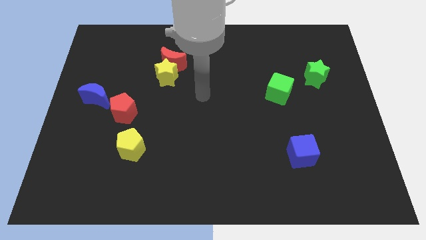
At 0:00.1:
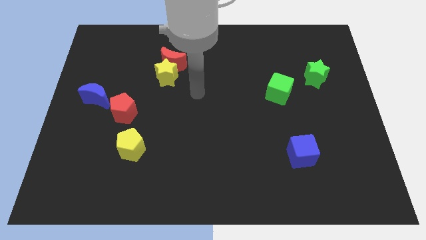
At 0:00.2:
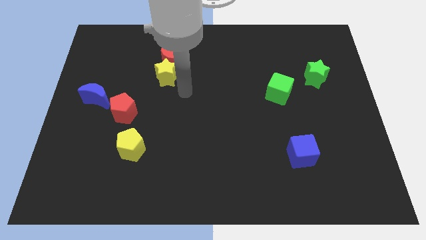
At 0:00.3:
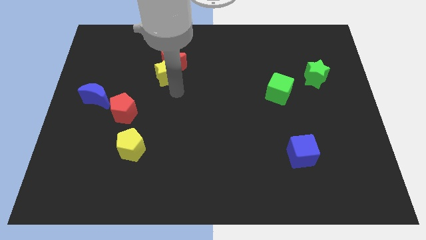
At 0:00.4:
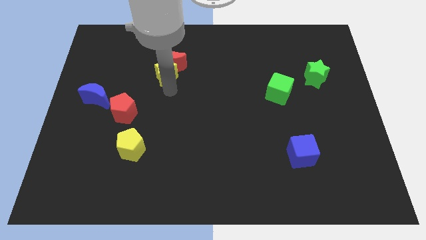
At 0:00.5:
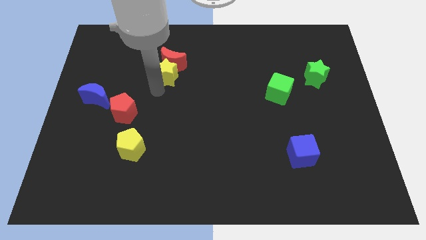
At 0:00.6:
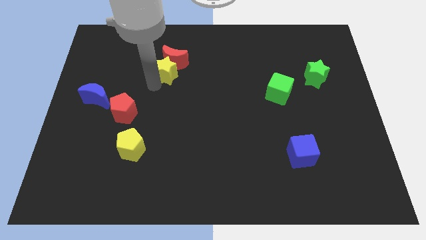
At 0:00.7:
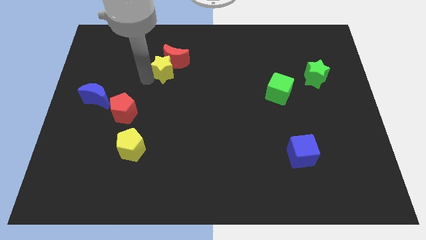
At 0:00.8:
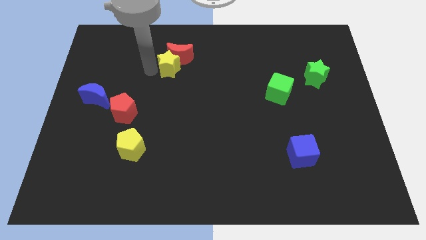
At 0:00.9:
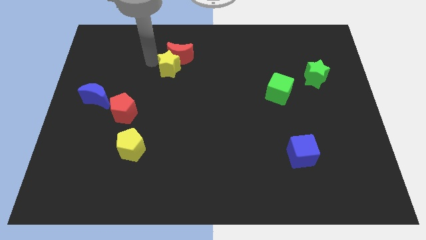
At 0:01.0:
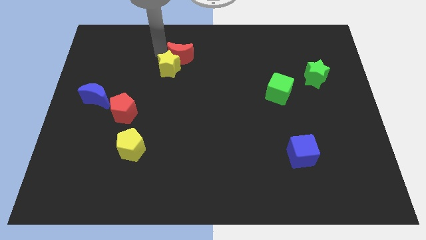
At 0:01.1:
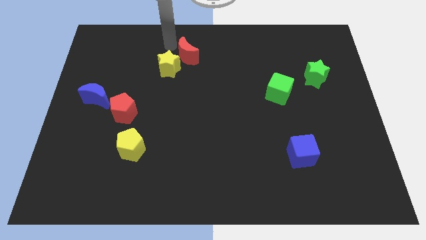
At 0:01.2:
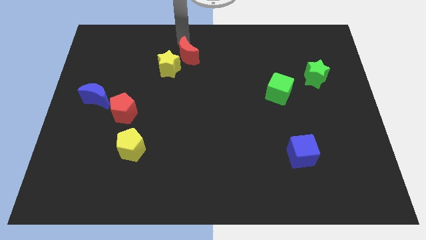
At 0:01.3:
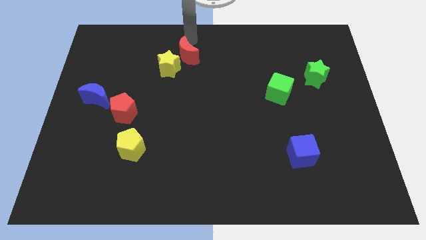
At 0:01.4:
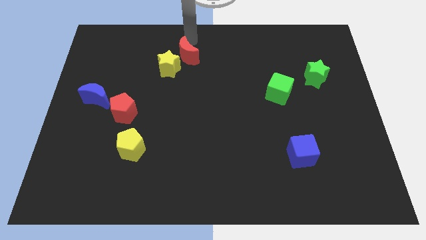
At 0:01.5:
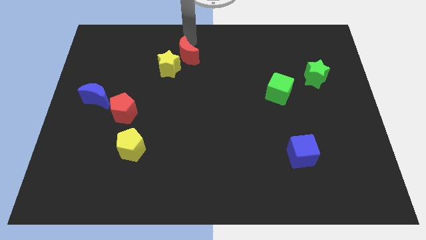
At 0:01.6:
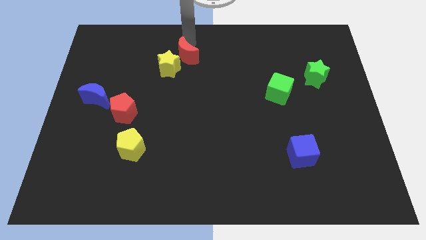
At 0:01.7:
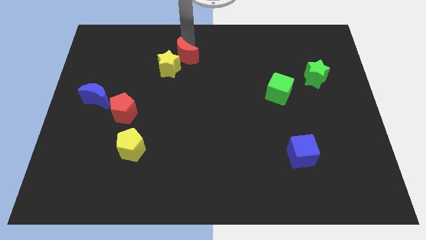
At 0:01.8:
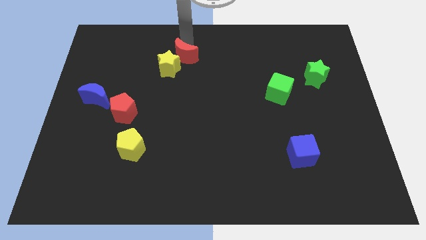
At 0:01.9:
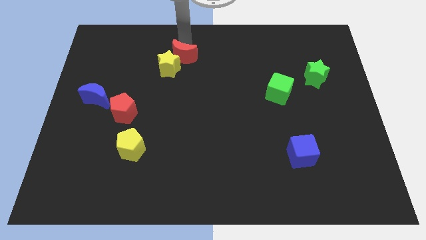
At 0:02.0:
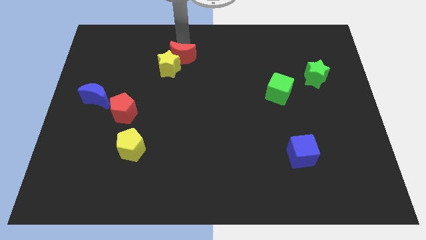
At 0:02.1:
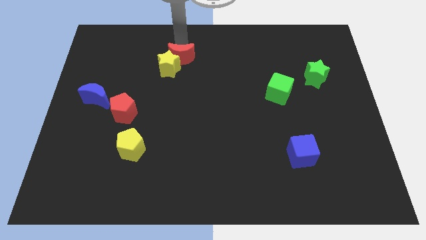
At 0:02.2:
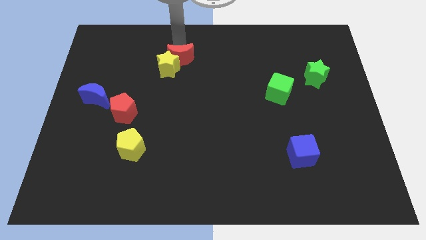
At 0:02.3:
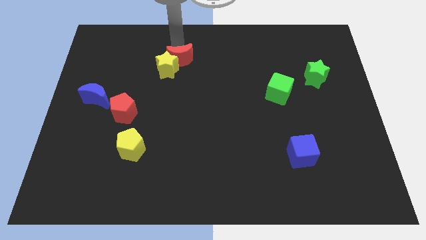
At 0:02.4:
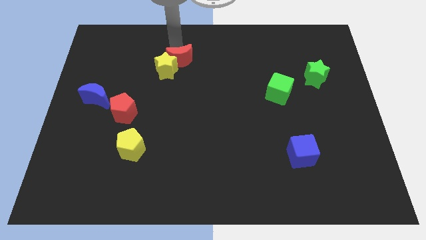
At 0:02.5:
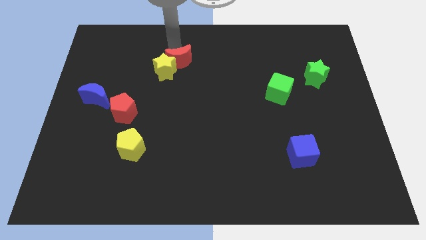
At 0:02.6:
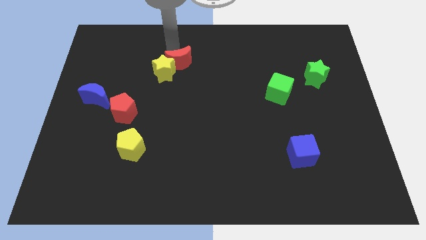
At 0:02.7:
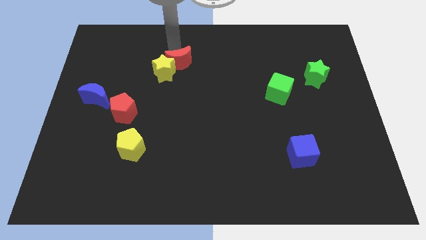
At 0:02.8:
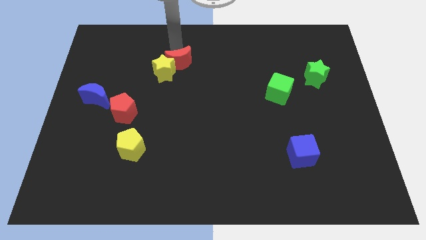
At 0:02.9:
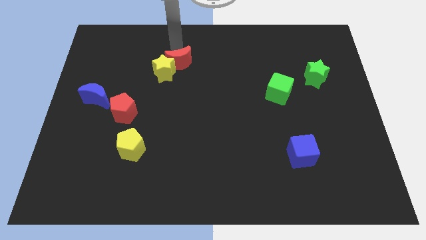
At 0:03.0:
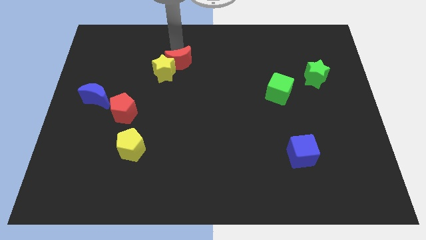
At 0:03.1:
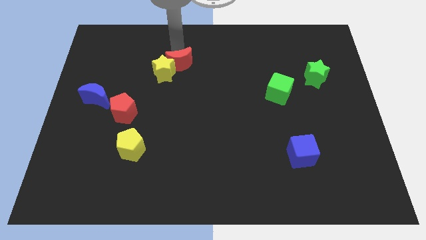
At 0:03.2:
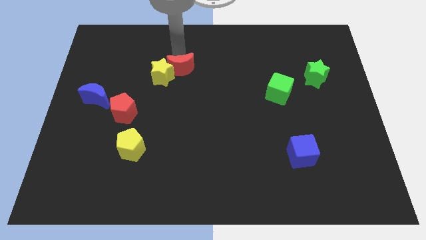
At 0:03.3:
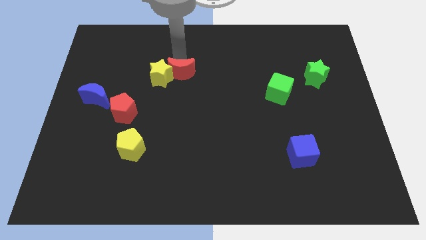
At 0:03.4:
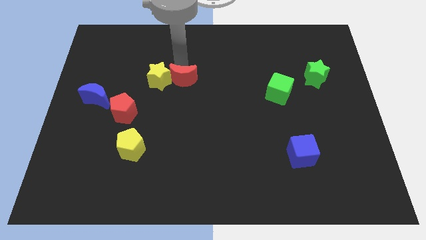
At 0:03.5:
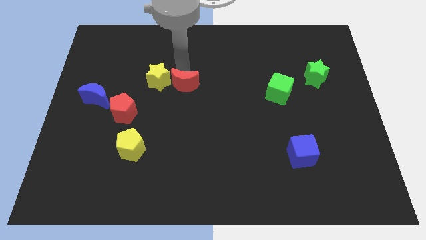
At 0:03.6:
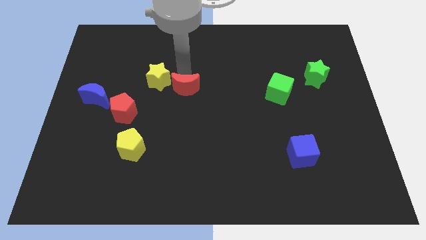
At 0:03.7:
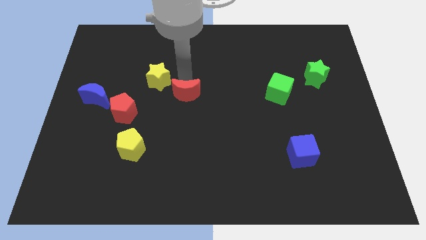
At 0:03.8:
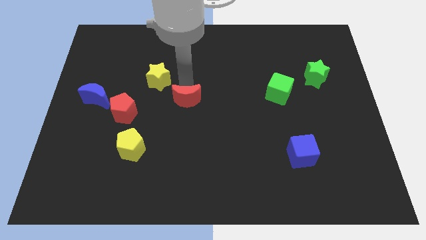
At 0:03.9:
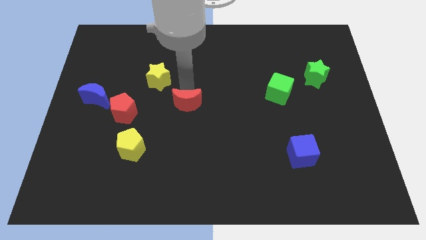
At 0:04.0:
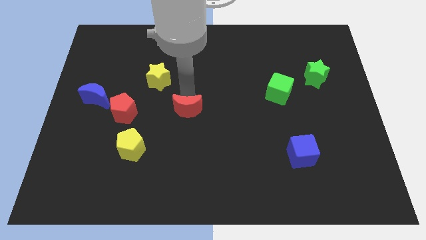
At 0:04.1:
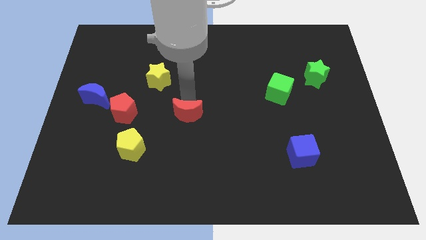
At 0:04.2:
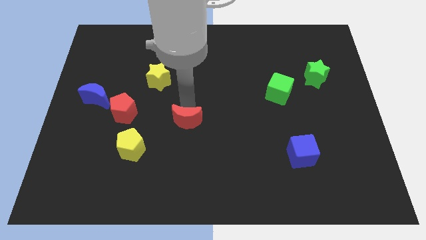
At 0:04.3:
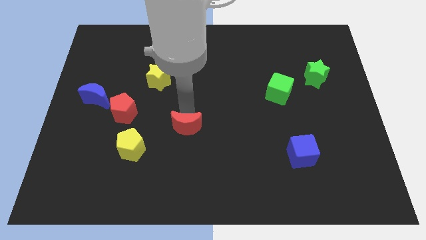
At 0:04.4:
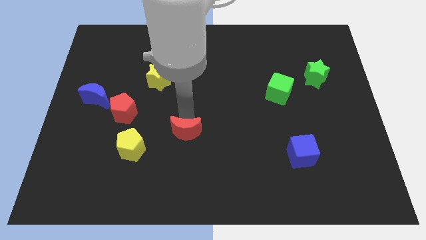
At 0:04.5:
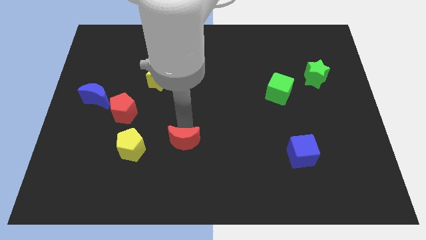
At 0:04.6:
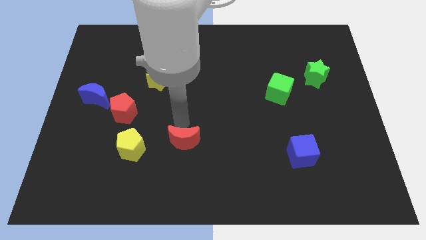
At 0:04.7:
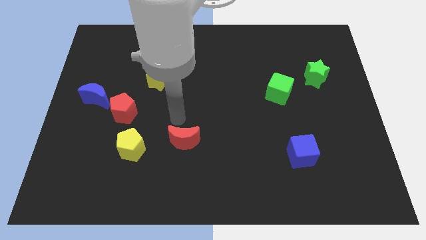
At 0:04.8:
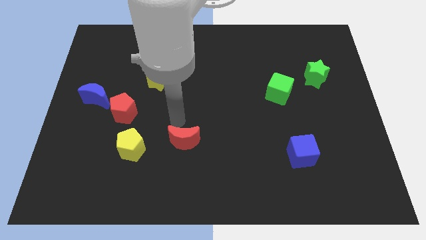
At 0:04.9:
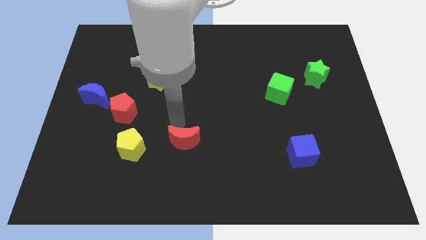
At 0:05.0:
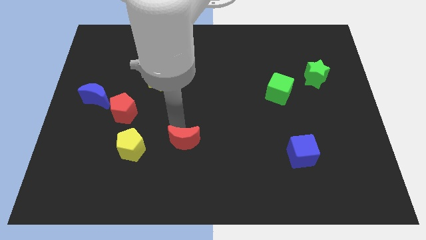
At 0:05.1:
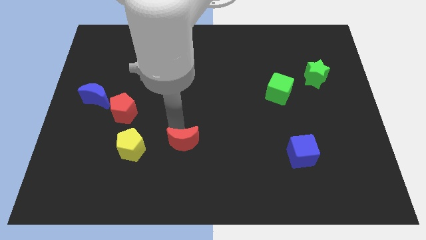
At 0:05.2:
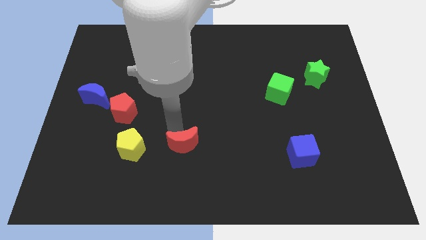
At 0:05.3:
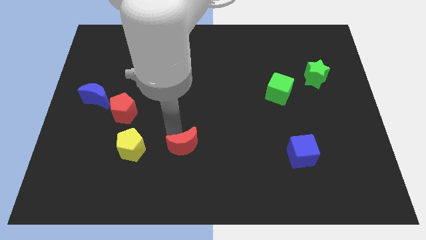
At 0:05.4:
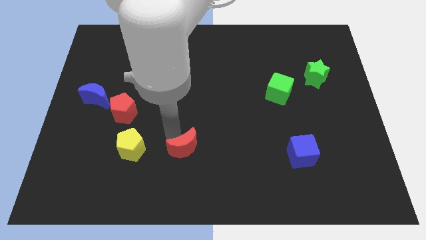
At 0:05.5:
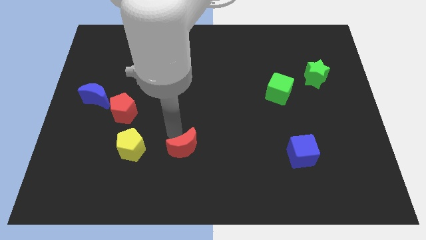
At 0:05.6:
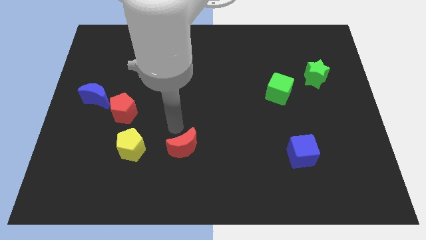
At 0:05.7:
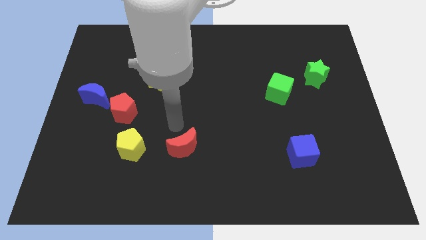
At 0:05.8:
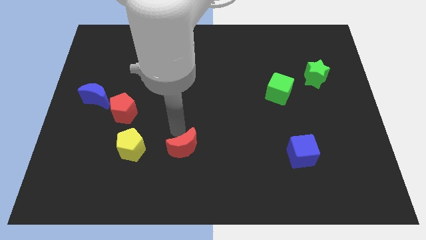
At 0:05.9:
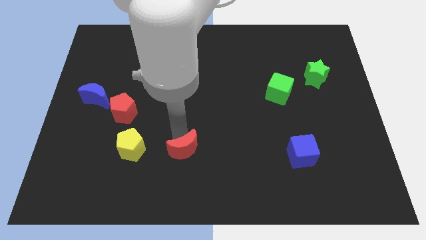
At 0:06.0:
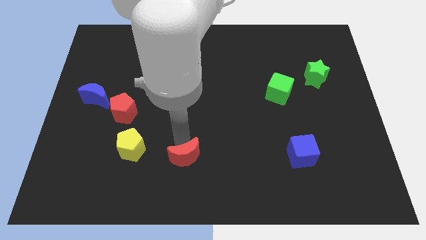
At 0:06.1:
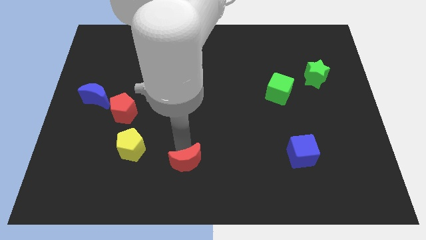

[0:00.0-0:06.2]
push the red moon to the bottom
